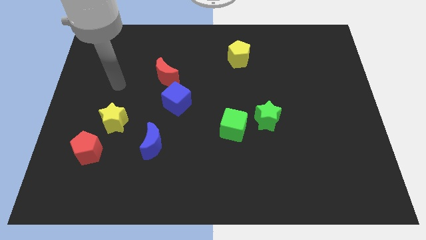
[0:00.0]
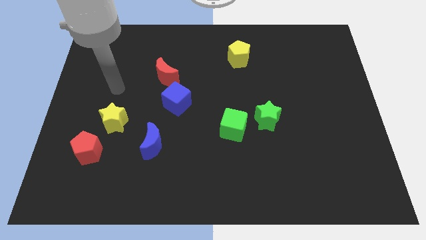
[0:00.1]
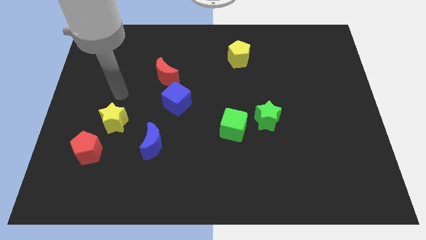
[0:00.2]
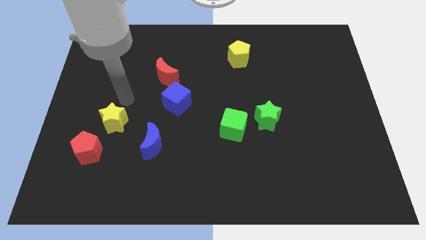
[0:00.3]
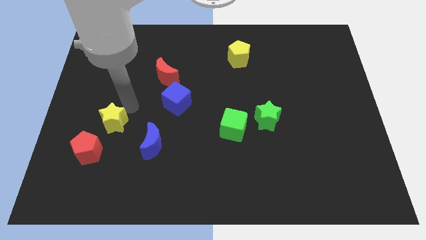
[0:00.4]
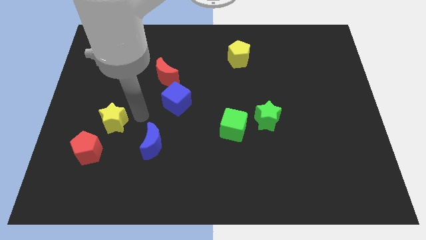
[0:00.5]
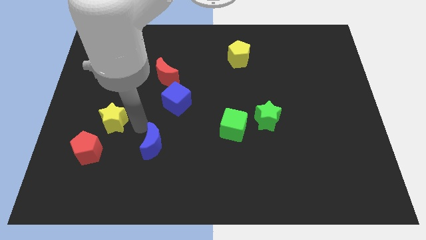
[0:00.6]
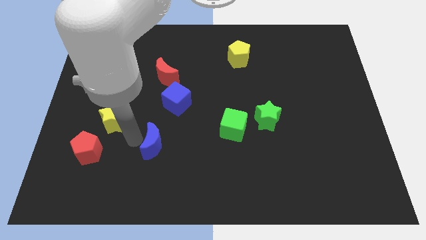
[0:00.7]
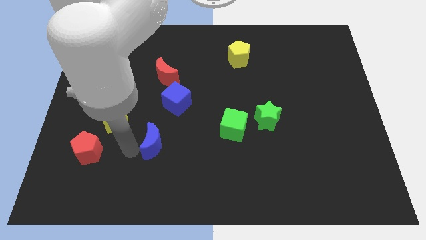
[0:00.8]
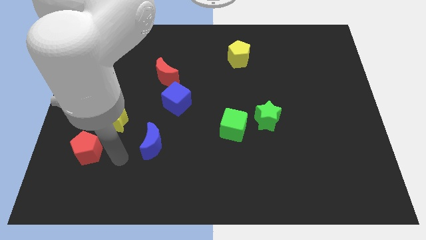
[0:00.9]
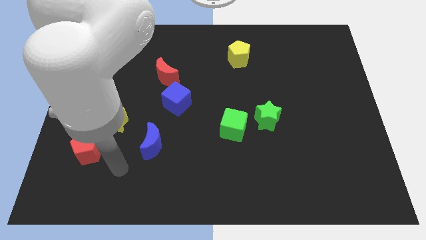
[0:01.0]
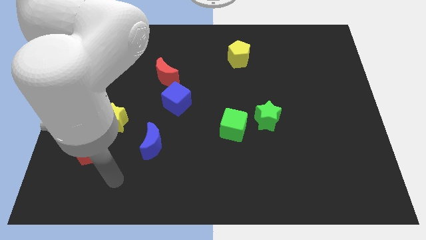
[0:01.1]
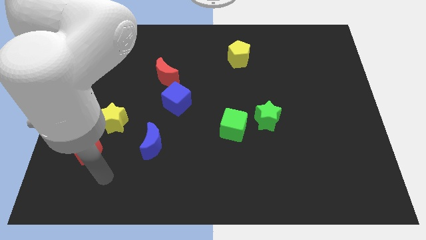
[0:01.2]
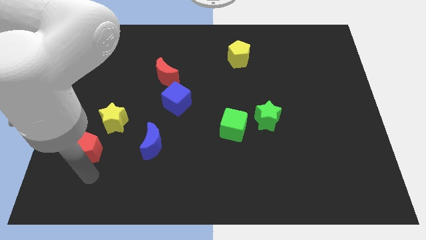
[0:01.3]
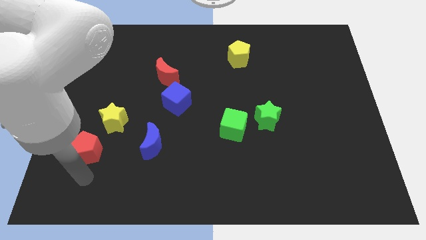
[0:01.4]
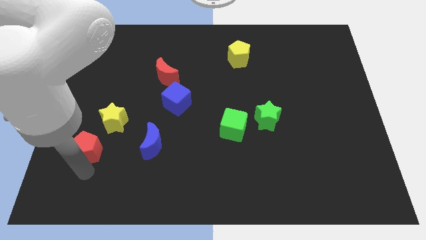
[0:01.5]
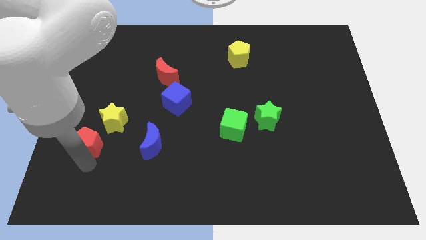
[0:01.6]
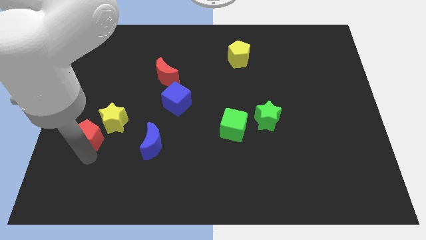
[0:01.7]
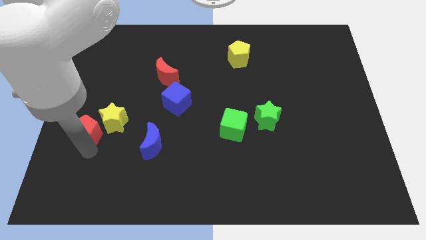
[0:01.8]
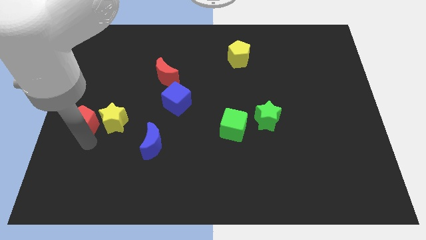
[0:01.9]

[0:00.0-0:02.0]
move the red pentagon a little up

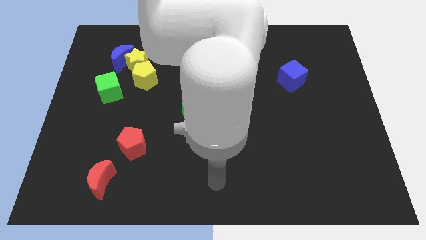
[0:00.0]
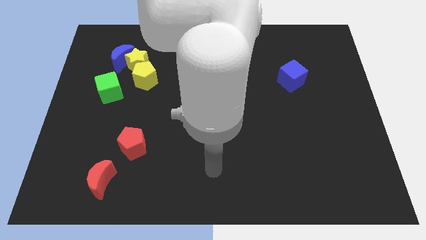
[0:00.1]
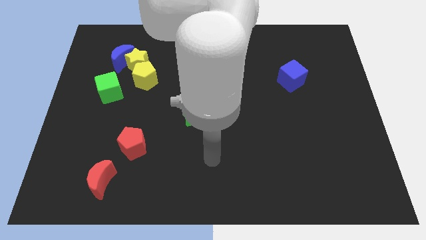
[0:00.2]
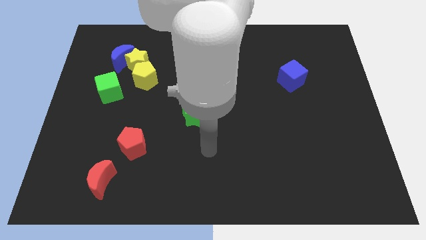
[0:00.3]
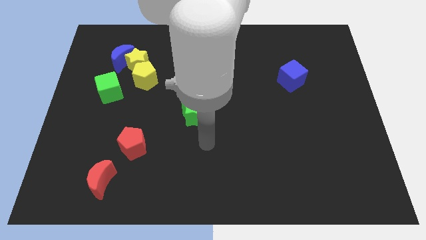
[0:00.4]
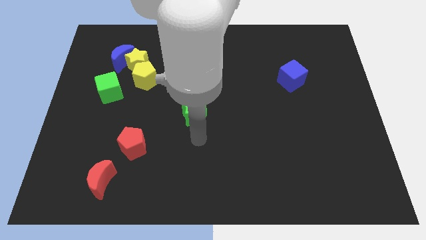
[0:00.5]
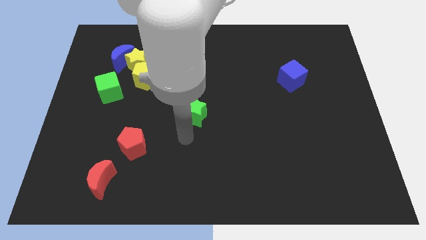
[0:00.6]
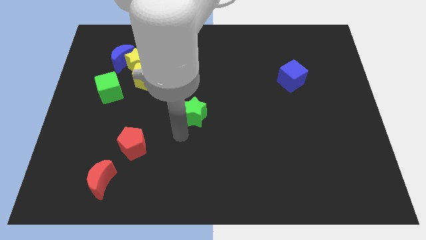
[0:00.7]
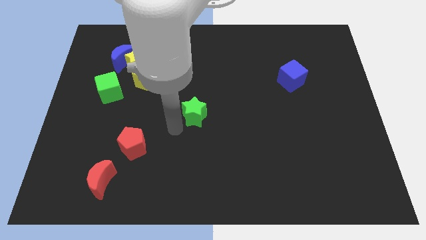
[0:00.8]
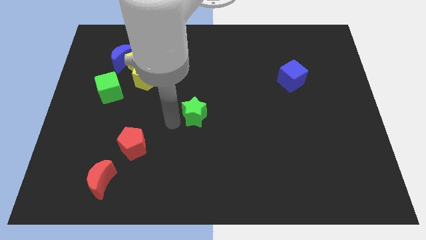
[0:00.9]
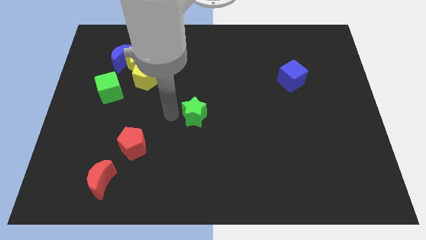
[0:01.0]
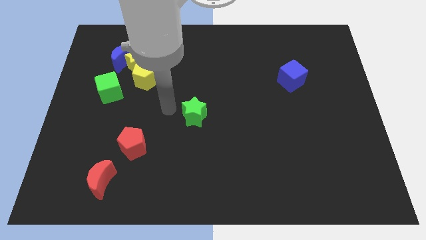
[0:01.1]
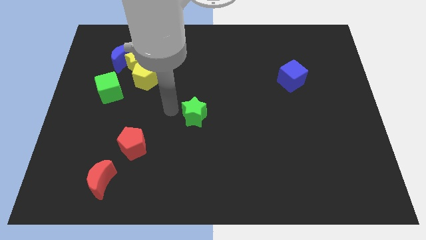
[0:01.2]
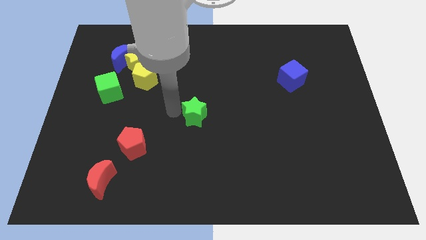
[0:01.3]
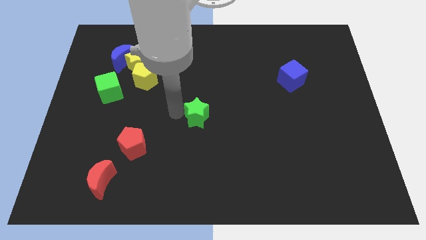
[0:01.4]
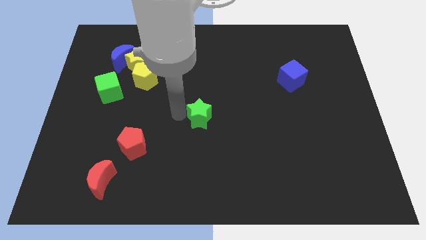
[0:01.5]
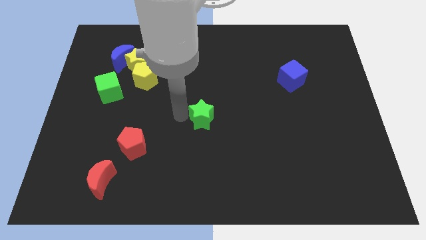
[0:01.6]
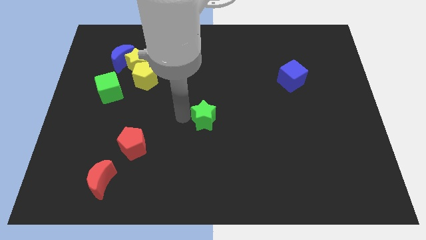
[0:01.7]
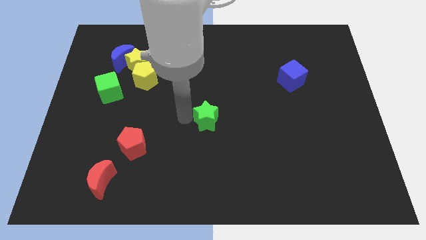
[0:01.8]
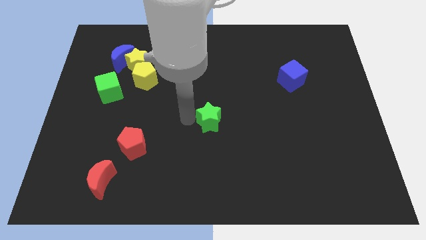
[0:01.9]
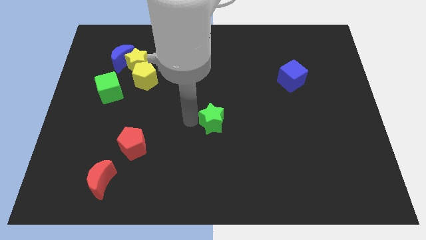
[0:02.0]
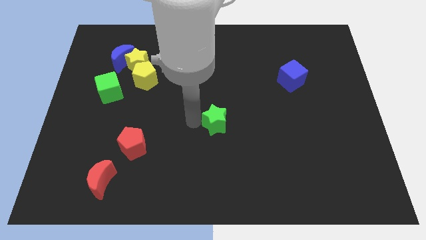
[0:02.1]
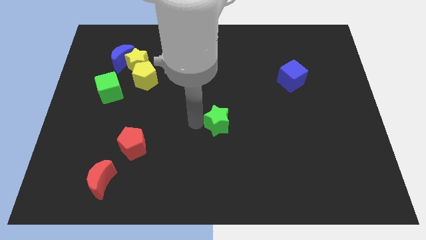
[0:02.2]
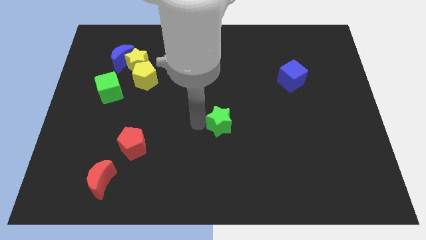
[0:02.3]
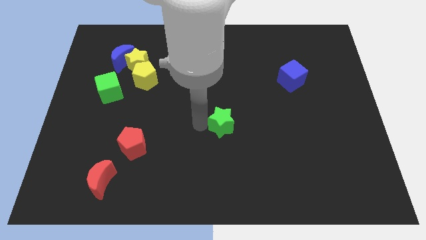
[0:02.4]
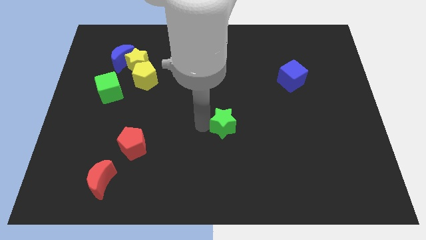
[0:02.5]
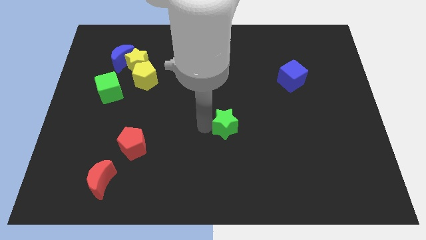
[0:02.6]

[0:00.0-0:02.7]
slide the green star to the right slightly

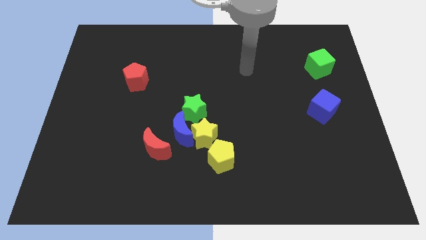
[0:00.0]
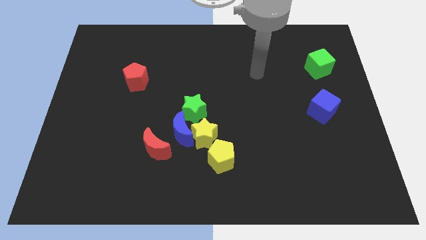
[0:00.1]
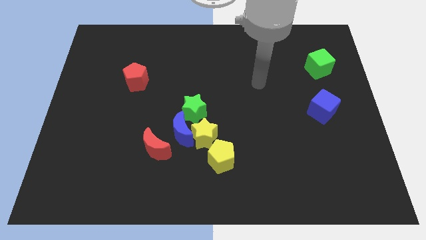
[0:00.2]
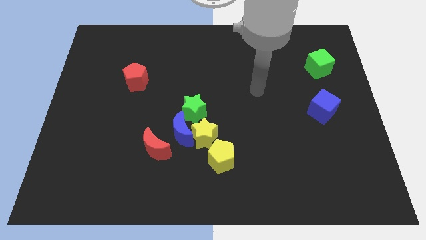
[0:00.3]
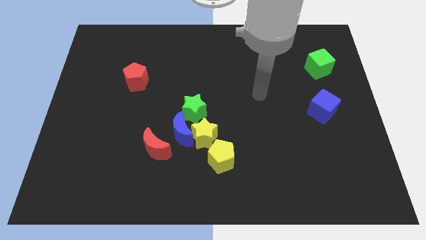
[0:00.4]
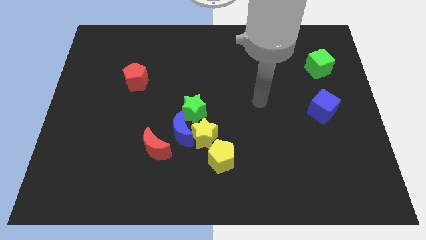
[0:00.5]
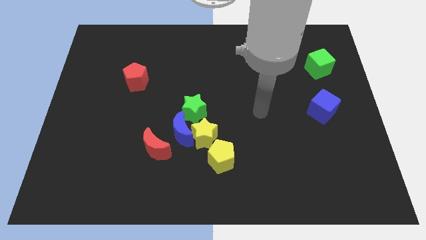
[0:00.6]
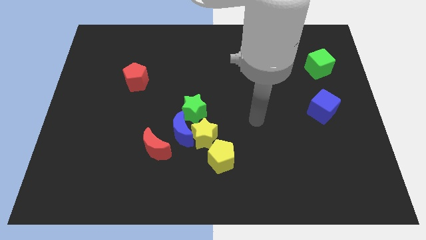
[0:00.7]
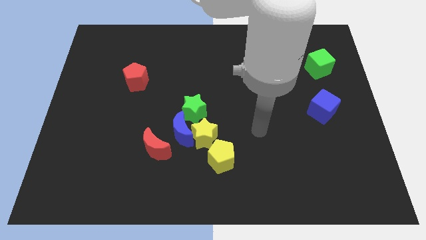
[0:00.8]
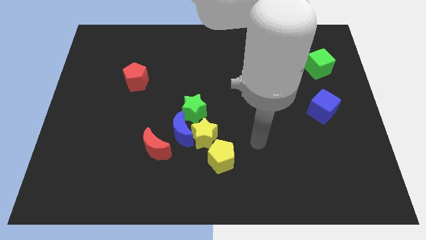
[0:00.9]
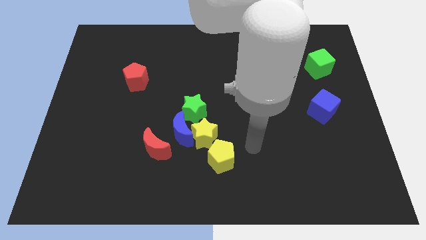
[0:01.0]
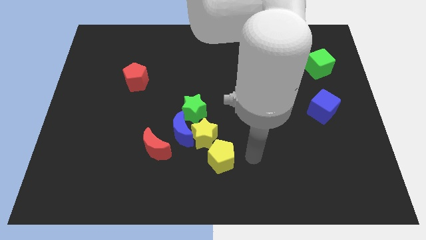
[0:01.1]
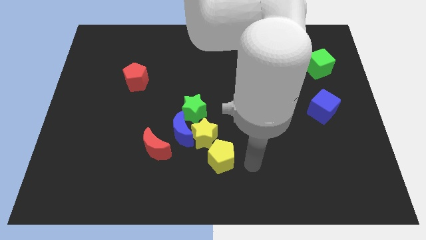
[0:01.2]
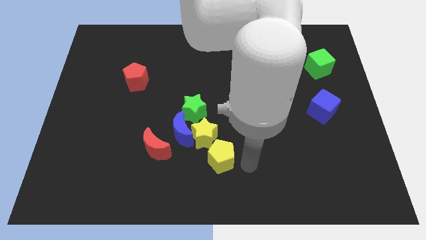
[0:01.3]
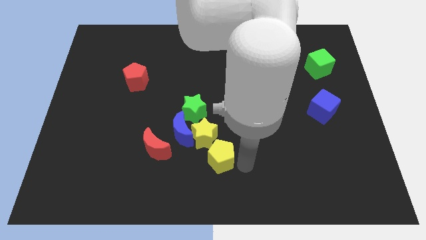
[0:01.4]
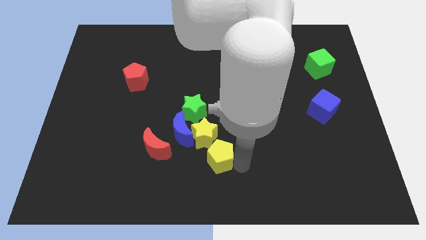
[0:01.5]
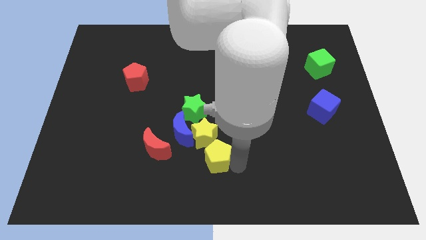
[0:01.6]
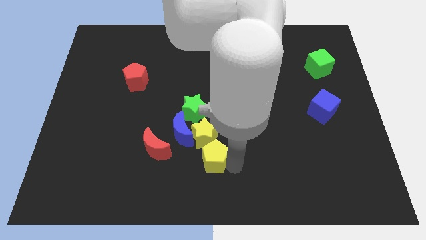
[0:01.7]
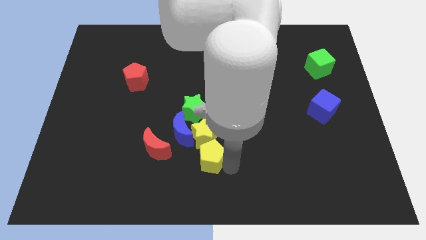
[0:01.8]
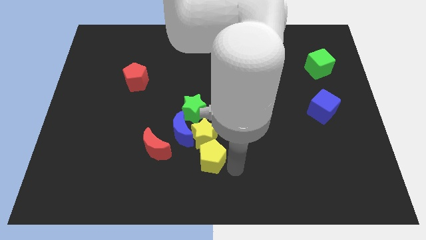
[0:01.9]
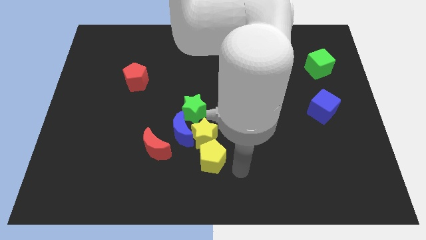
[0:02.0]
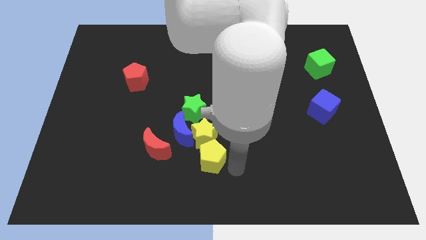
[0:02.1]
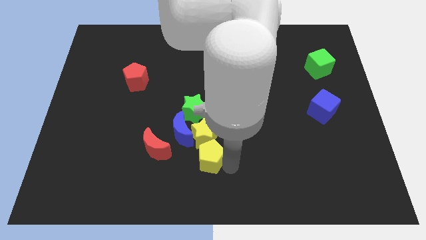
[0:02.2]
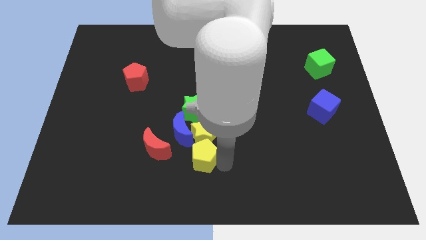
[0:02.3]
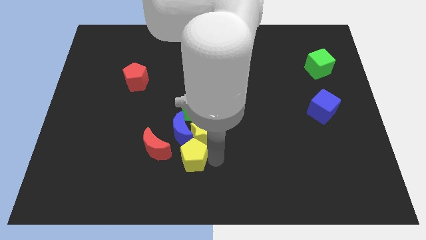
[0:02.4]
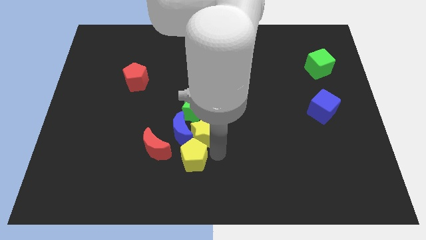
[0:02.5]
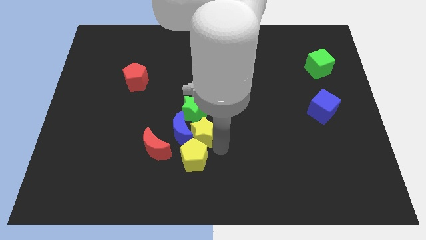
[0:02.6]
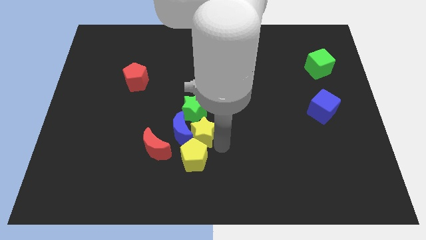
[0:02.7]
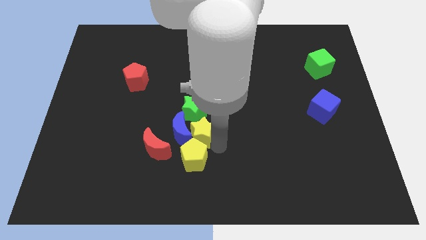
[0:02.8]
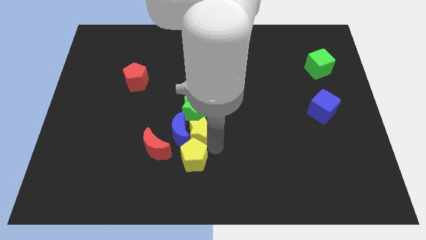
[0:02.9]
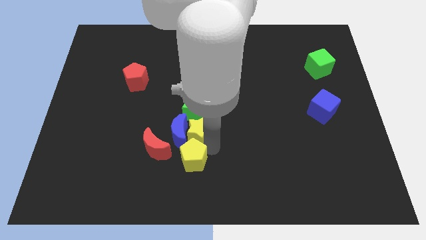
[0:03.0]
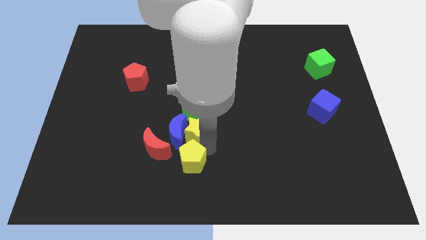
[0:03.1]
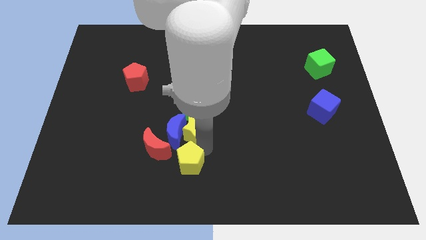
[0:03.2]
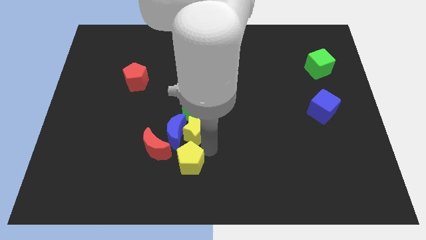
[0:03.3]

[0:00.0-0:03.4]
push the yellow pentagon to the left a little bit
